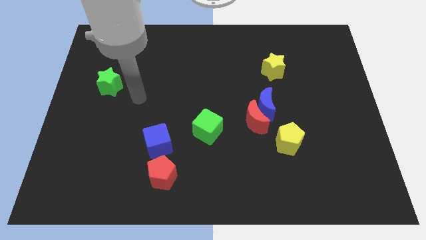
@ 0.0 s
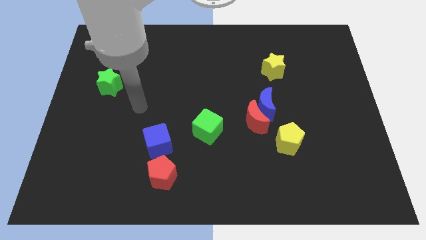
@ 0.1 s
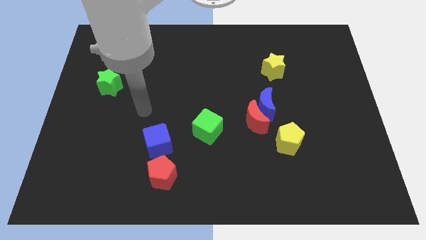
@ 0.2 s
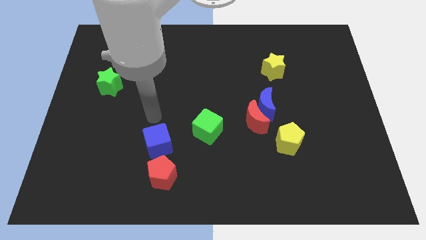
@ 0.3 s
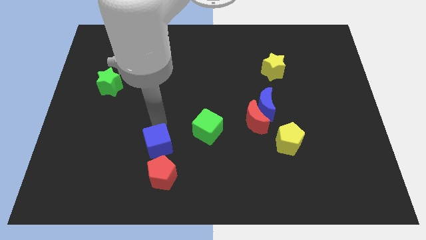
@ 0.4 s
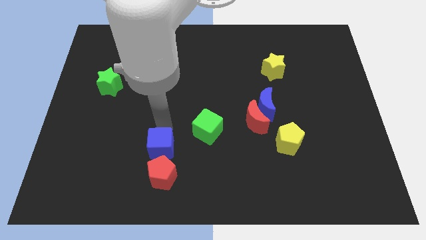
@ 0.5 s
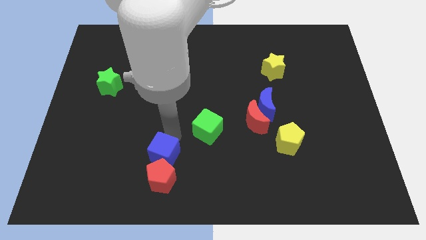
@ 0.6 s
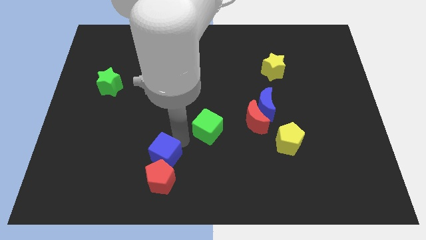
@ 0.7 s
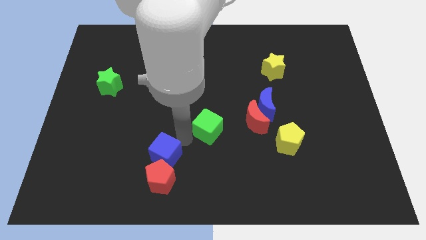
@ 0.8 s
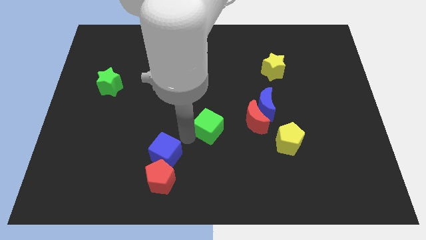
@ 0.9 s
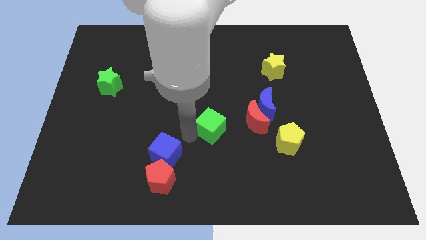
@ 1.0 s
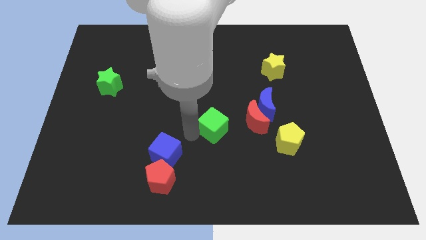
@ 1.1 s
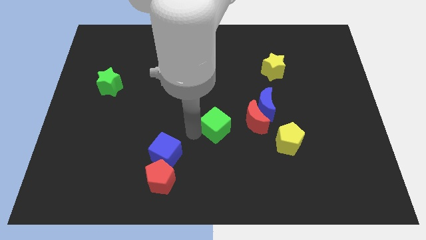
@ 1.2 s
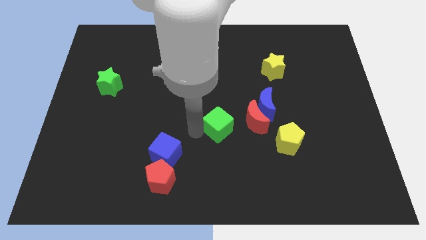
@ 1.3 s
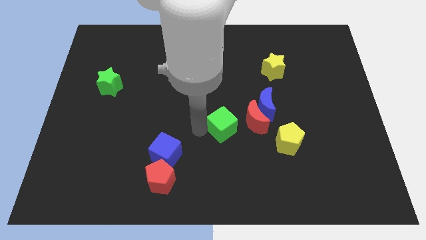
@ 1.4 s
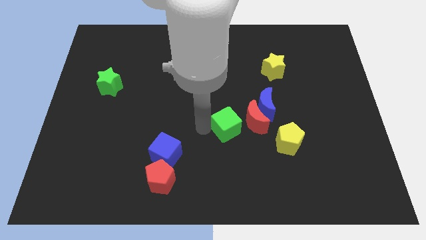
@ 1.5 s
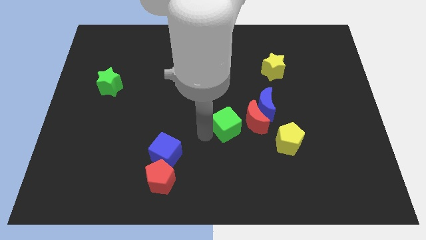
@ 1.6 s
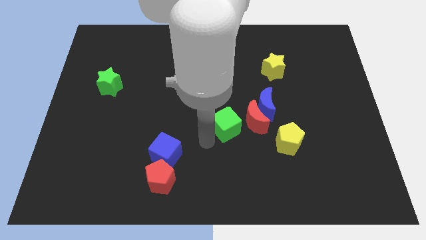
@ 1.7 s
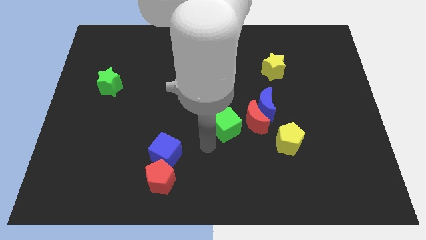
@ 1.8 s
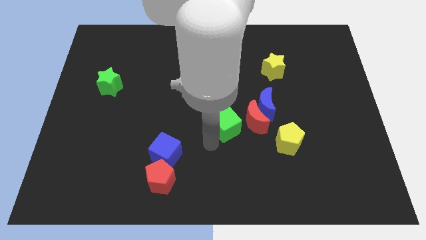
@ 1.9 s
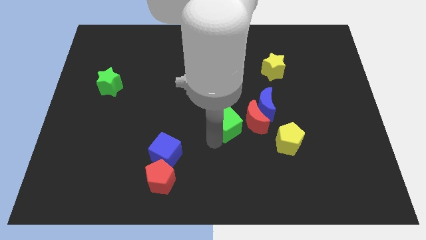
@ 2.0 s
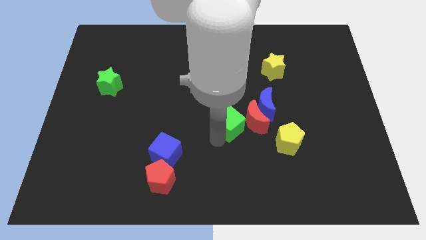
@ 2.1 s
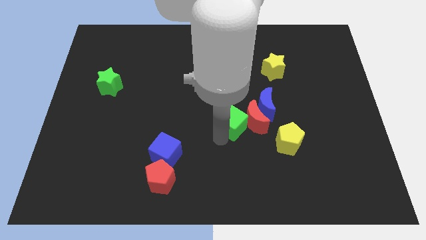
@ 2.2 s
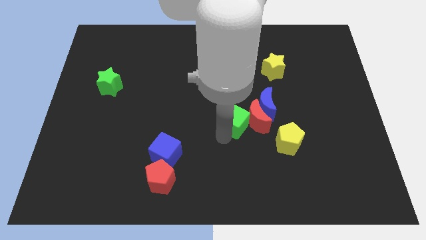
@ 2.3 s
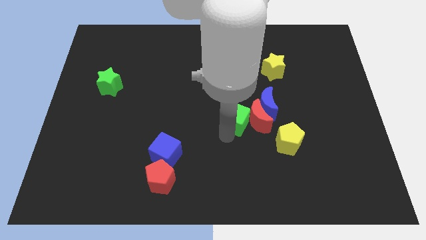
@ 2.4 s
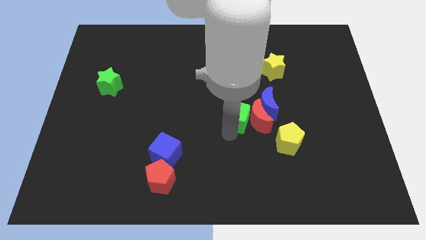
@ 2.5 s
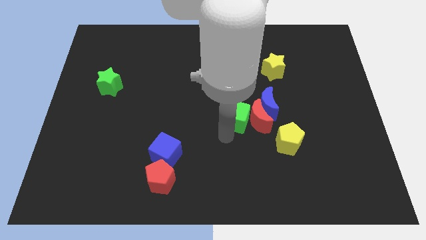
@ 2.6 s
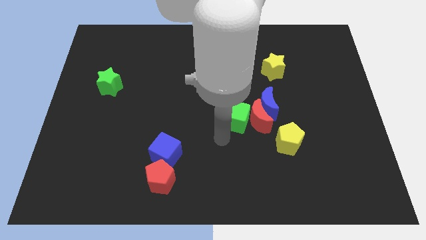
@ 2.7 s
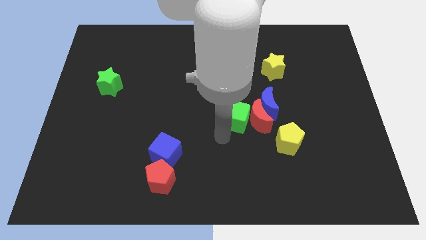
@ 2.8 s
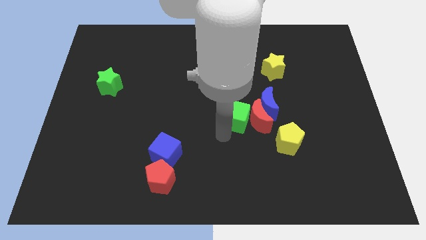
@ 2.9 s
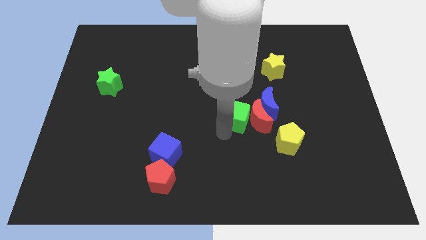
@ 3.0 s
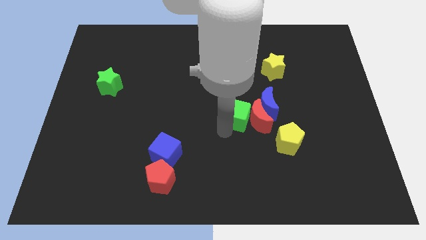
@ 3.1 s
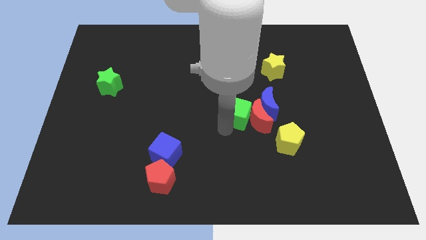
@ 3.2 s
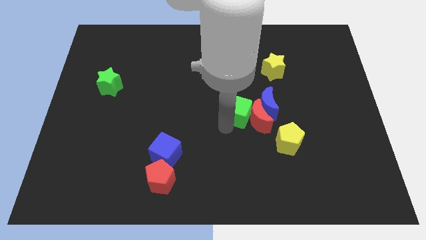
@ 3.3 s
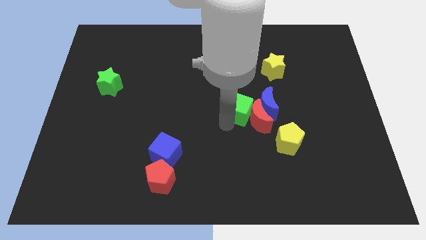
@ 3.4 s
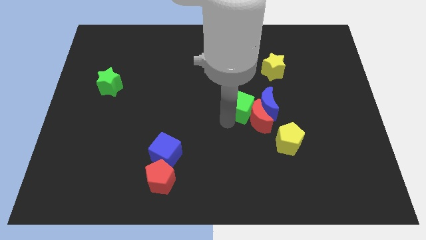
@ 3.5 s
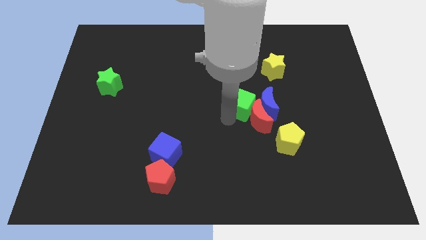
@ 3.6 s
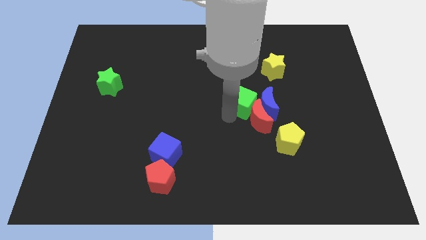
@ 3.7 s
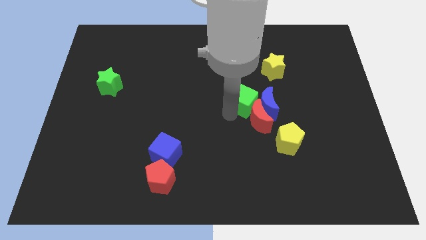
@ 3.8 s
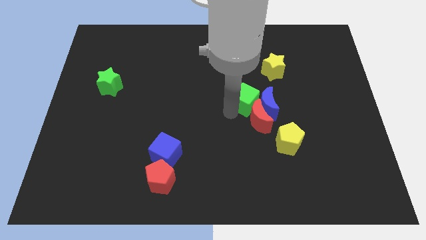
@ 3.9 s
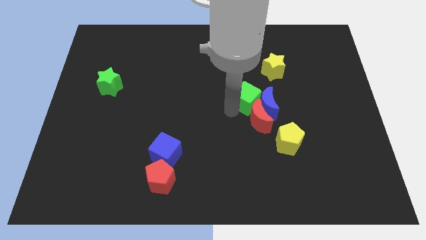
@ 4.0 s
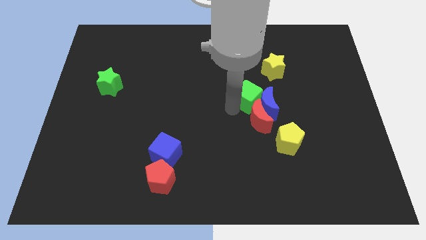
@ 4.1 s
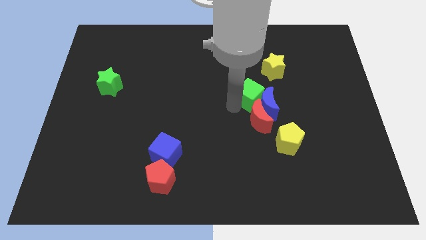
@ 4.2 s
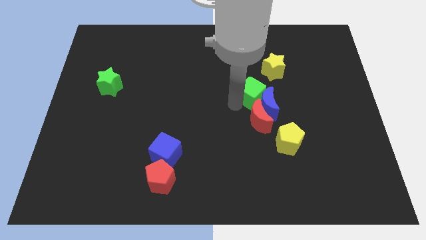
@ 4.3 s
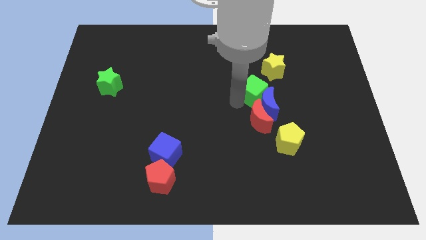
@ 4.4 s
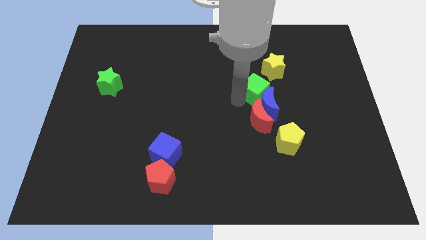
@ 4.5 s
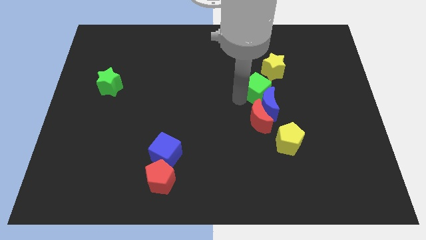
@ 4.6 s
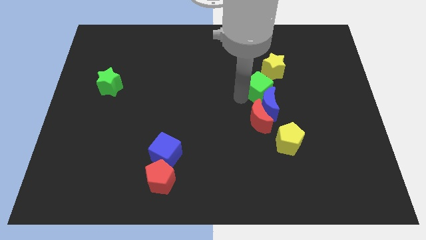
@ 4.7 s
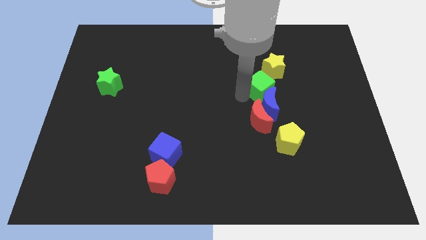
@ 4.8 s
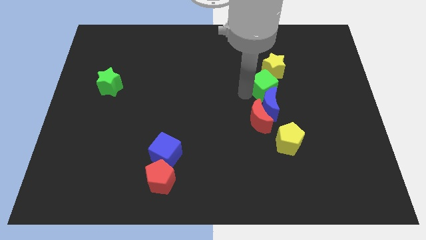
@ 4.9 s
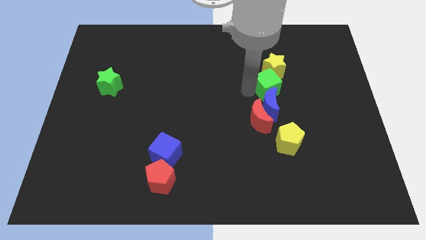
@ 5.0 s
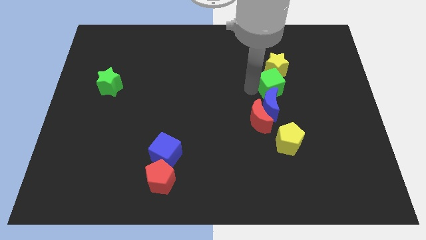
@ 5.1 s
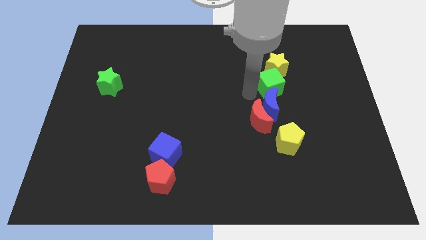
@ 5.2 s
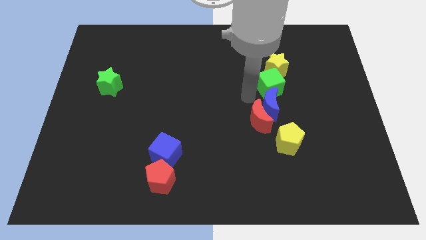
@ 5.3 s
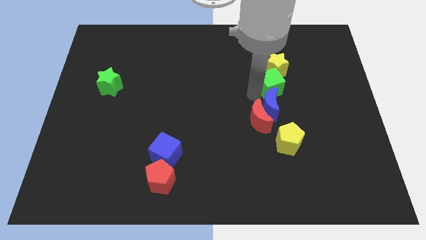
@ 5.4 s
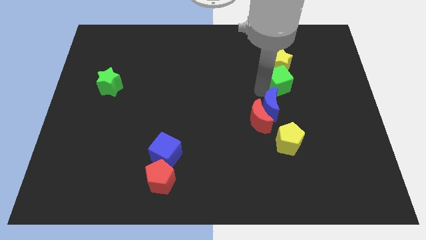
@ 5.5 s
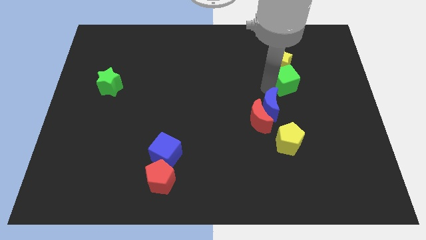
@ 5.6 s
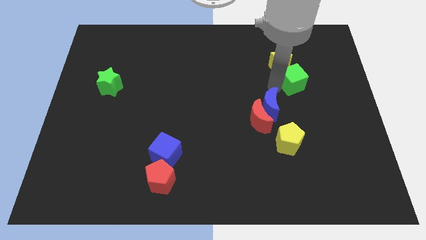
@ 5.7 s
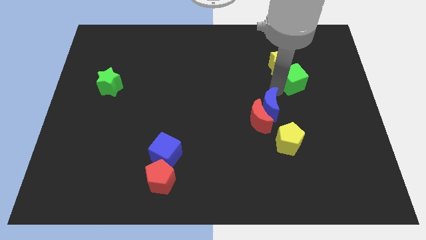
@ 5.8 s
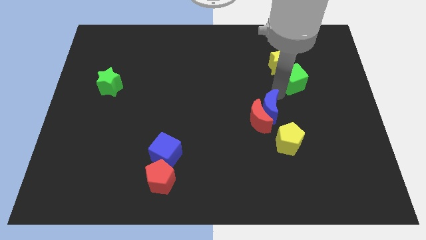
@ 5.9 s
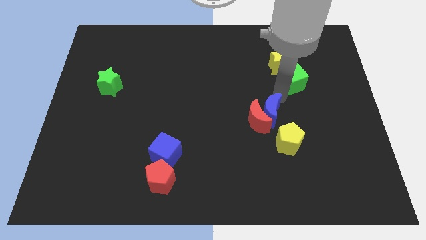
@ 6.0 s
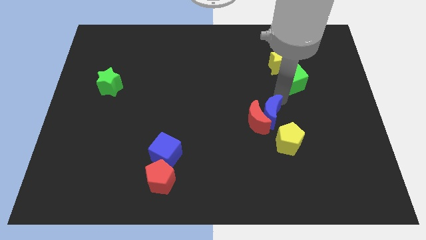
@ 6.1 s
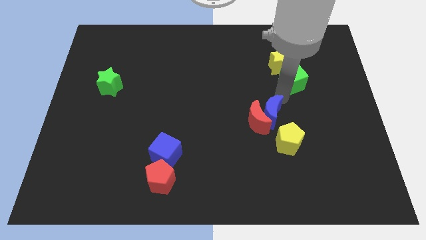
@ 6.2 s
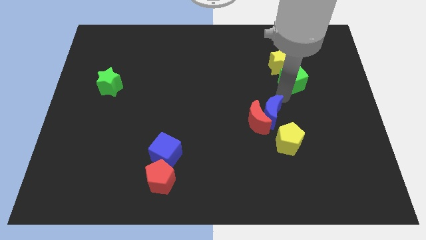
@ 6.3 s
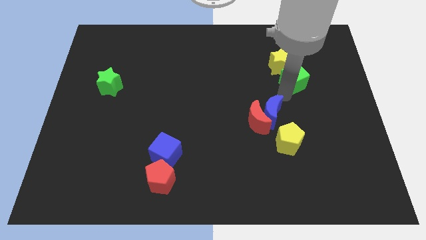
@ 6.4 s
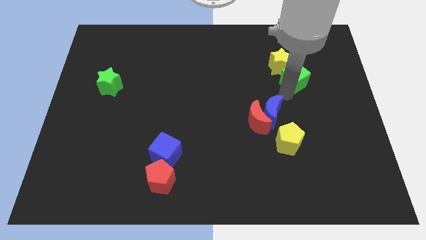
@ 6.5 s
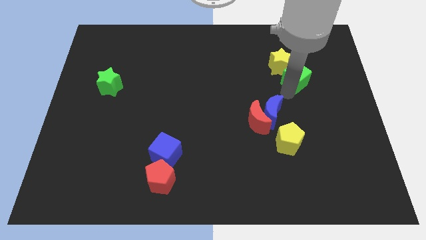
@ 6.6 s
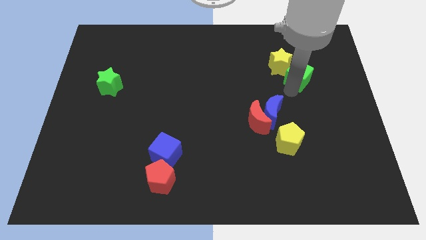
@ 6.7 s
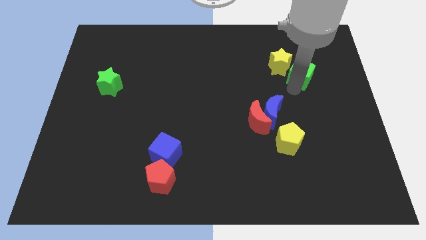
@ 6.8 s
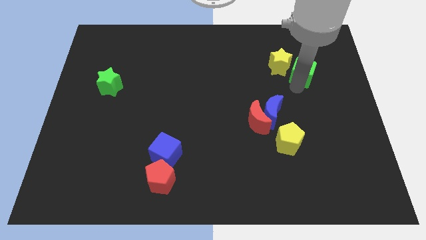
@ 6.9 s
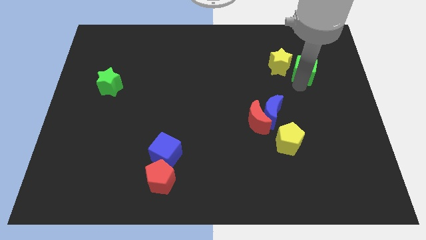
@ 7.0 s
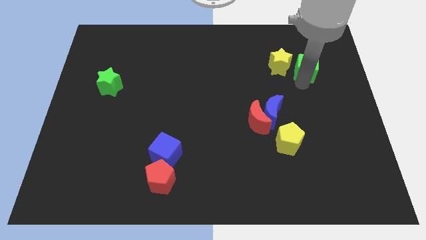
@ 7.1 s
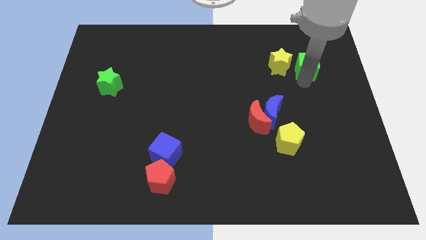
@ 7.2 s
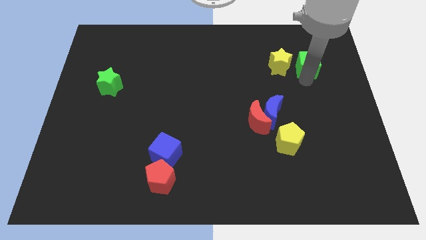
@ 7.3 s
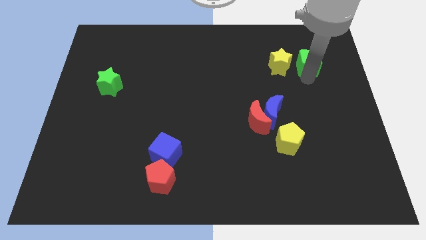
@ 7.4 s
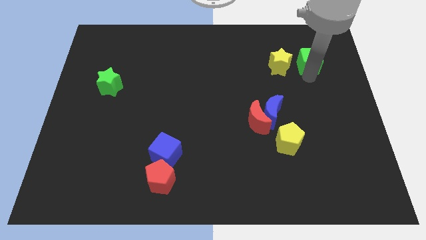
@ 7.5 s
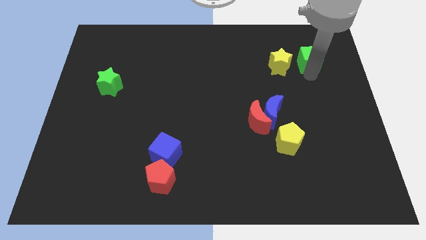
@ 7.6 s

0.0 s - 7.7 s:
push the green cube to the top right side of the yellow star
